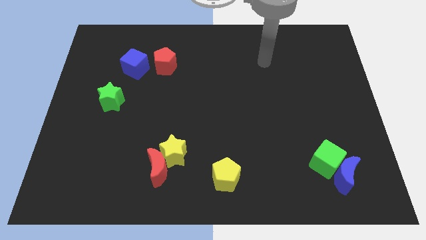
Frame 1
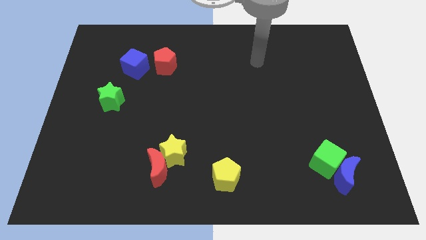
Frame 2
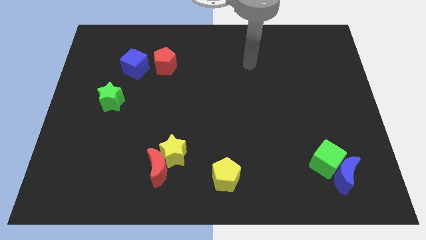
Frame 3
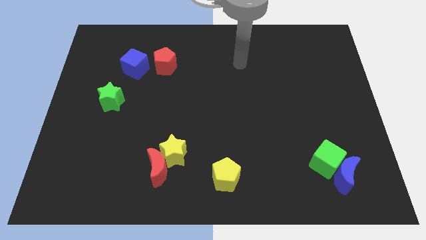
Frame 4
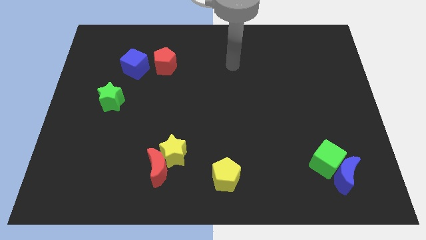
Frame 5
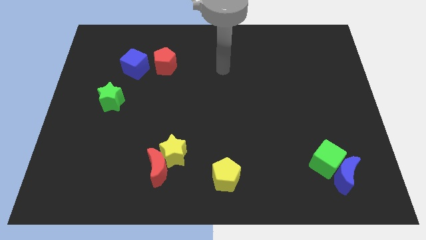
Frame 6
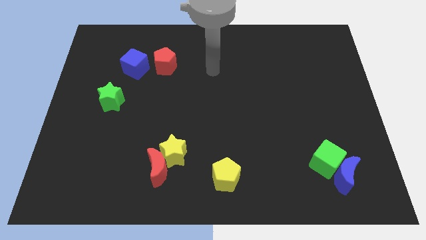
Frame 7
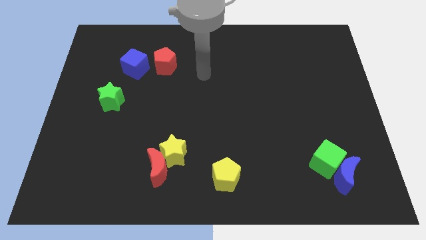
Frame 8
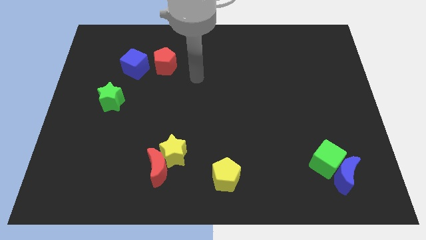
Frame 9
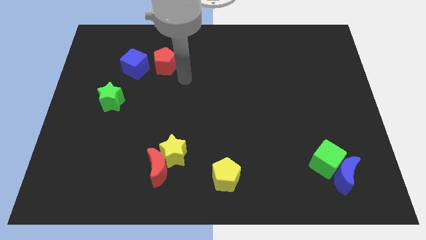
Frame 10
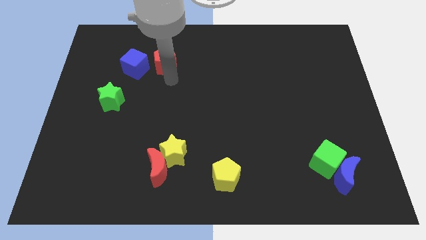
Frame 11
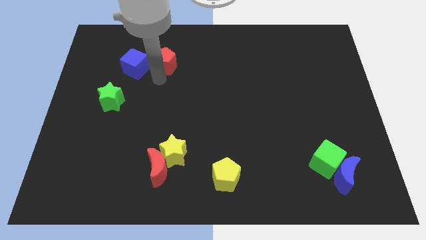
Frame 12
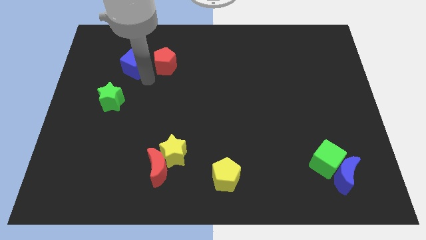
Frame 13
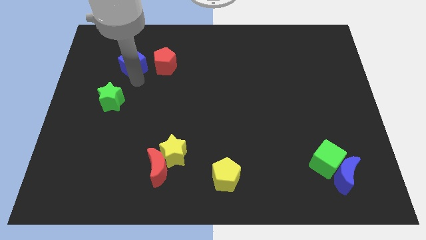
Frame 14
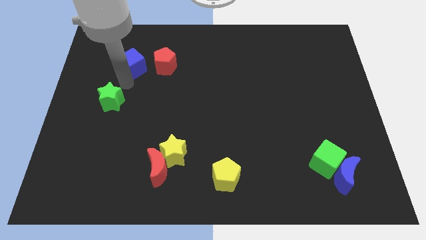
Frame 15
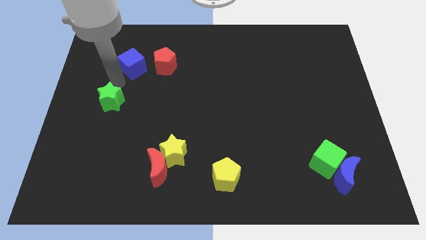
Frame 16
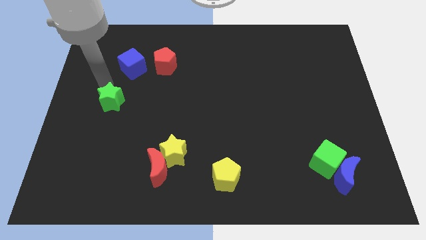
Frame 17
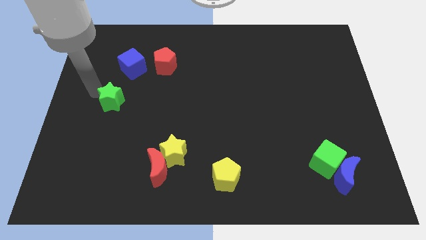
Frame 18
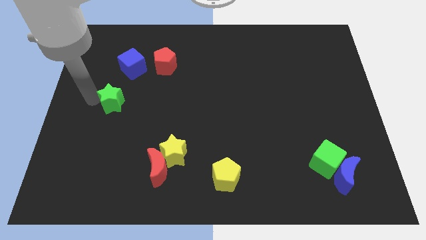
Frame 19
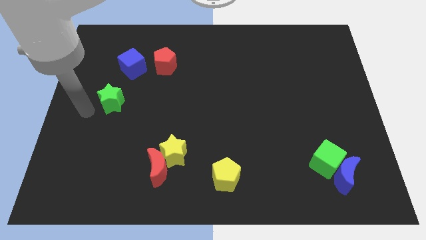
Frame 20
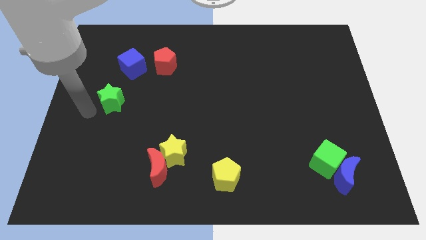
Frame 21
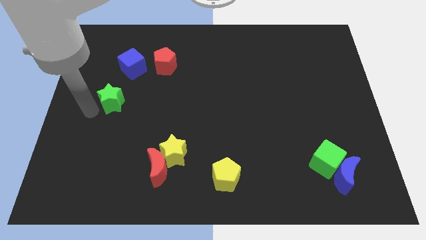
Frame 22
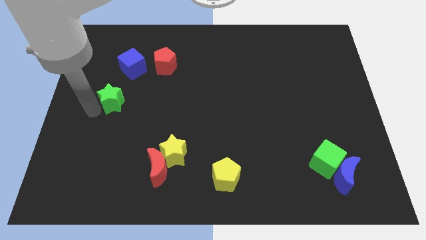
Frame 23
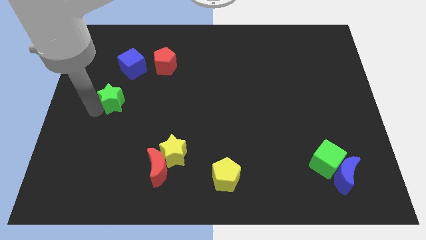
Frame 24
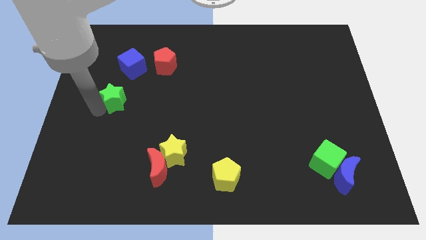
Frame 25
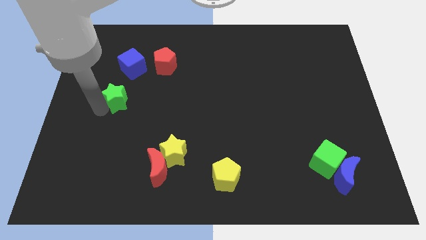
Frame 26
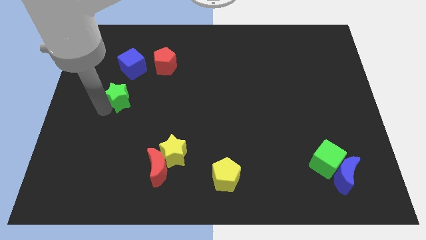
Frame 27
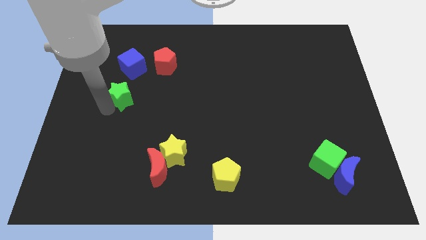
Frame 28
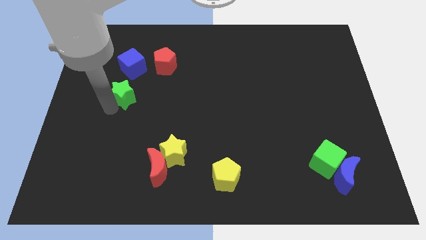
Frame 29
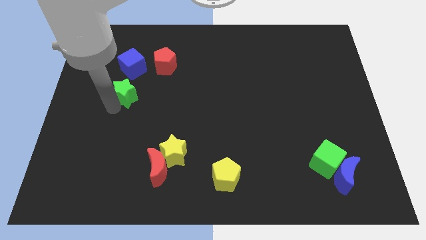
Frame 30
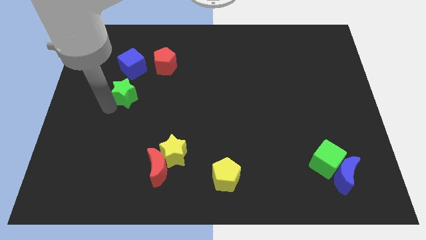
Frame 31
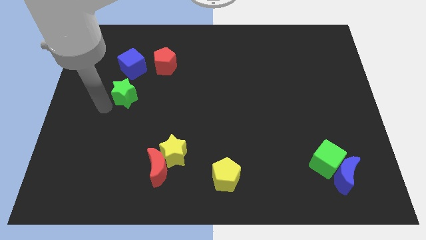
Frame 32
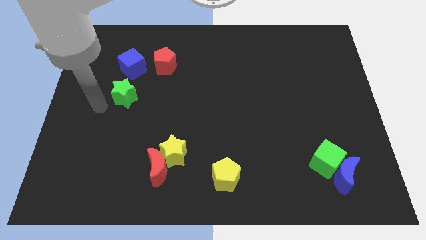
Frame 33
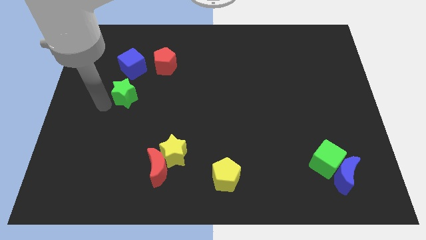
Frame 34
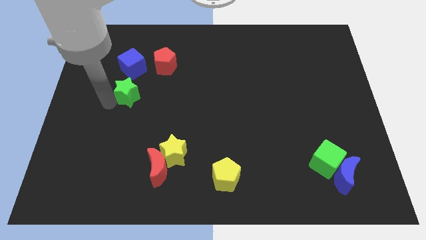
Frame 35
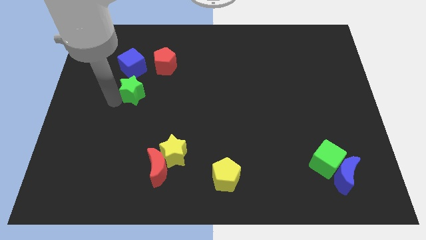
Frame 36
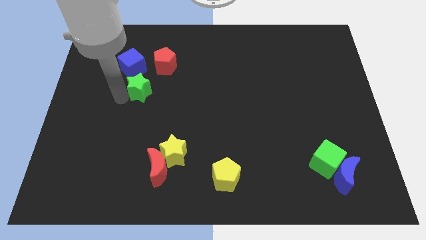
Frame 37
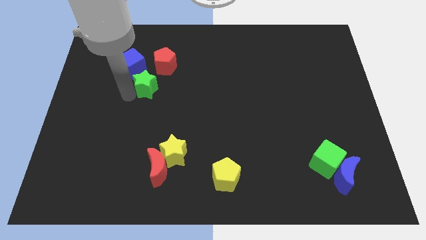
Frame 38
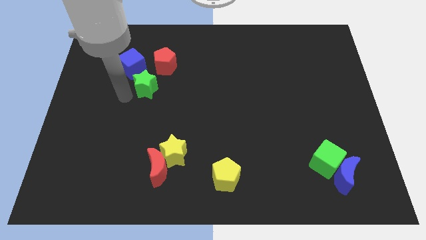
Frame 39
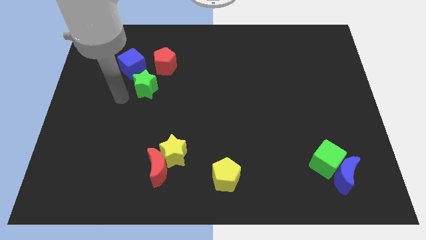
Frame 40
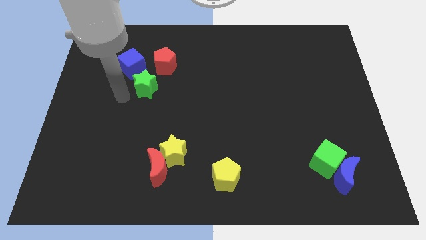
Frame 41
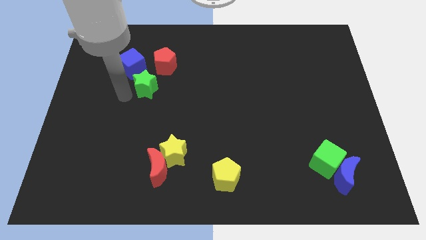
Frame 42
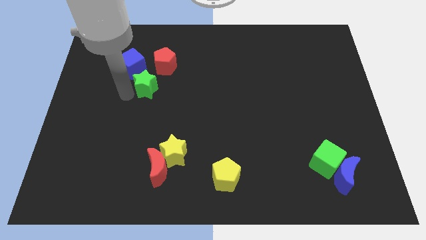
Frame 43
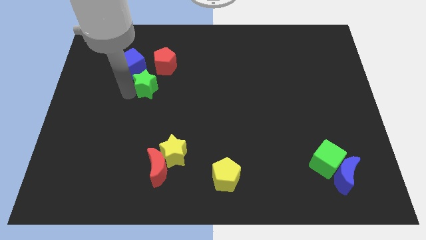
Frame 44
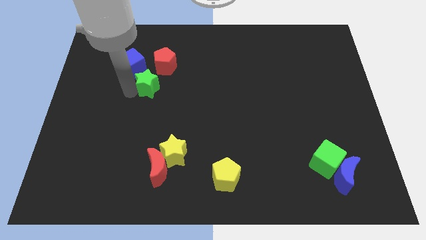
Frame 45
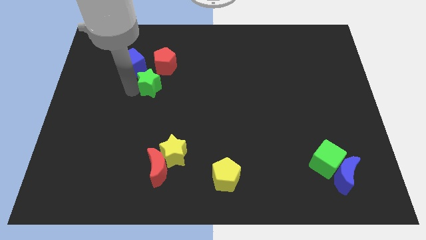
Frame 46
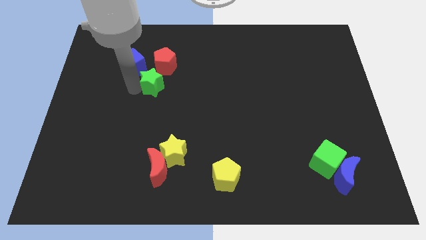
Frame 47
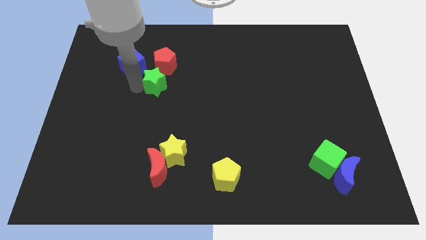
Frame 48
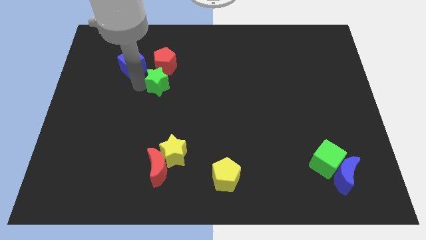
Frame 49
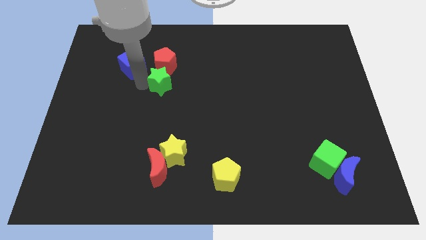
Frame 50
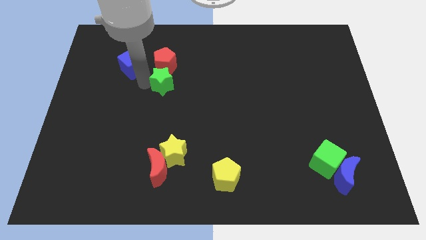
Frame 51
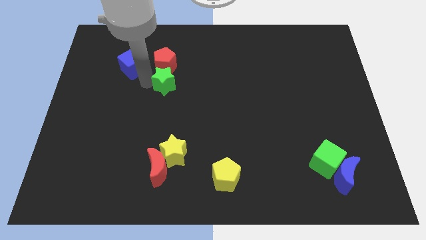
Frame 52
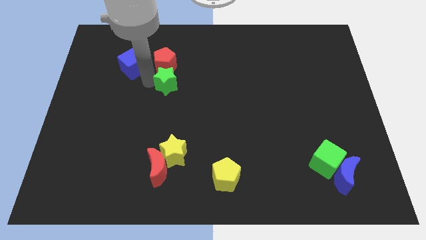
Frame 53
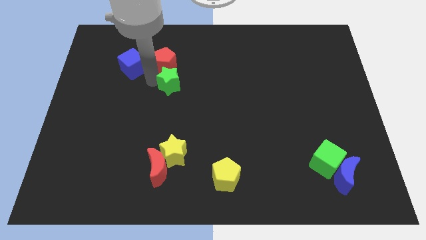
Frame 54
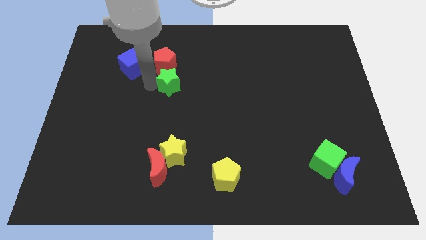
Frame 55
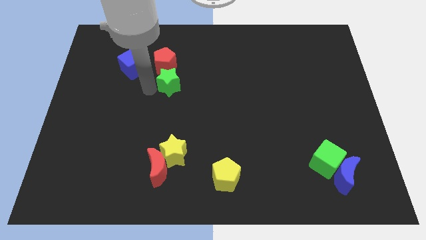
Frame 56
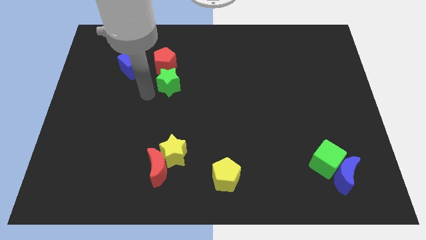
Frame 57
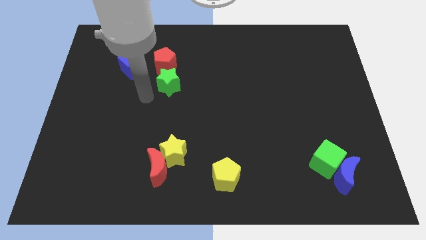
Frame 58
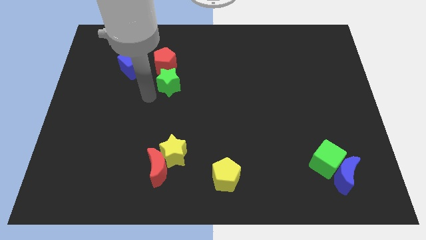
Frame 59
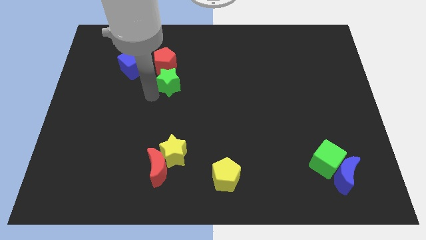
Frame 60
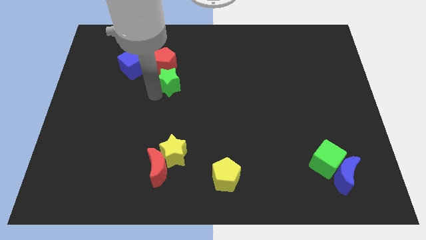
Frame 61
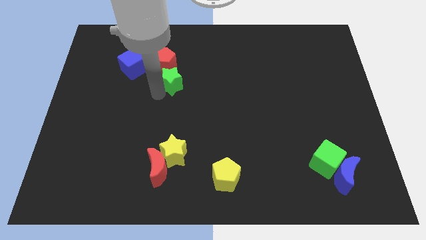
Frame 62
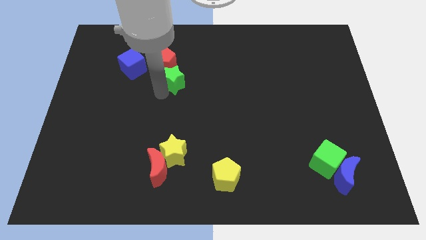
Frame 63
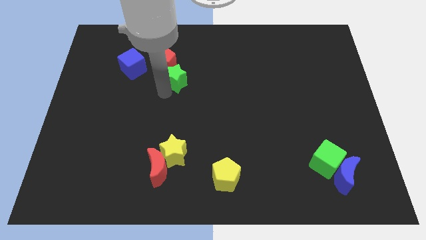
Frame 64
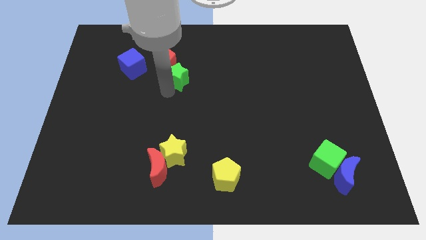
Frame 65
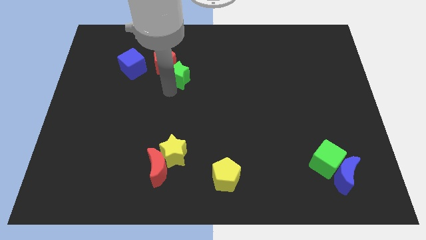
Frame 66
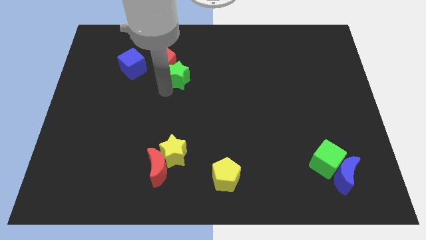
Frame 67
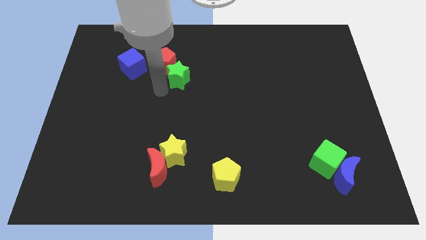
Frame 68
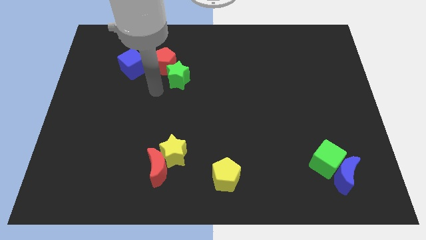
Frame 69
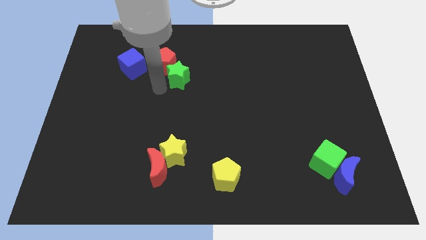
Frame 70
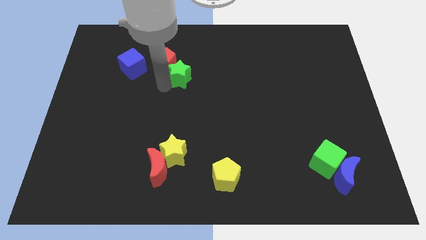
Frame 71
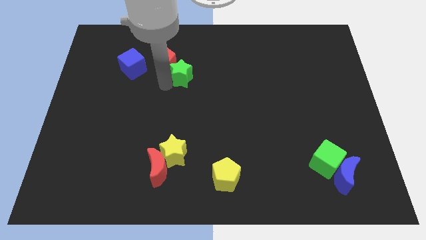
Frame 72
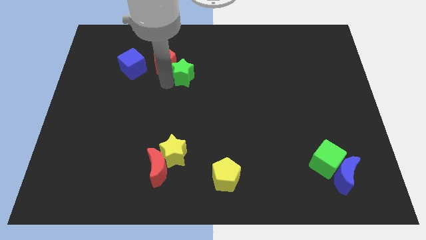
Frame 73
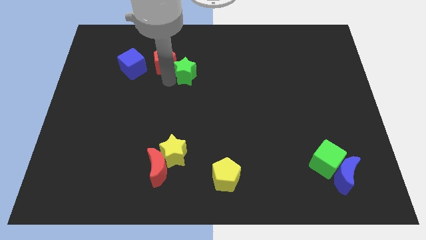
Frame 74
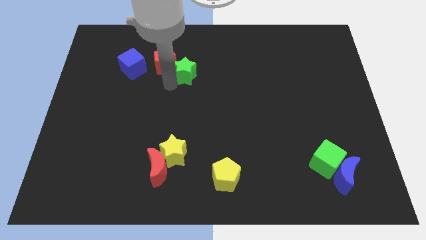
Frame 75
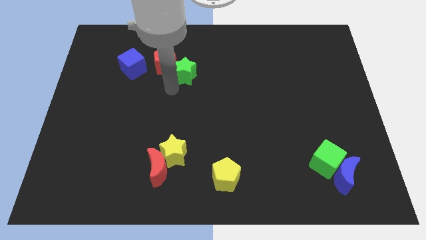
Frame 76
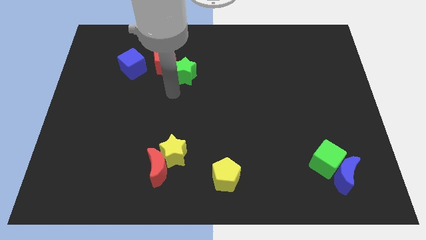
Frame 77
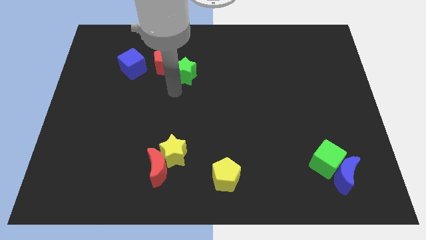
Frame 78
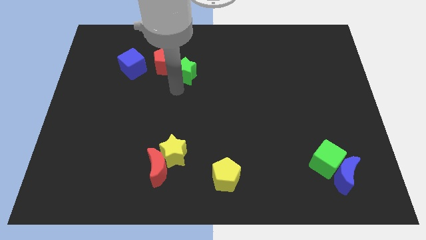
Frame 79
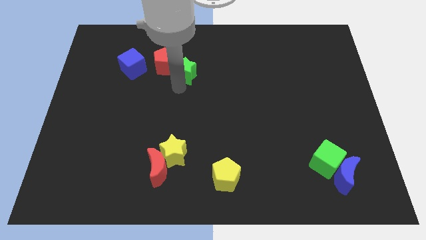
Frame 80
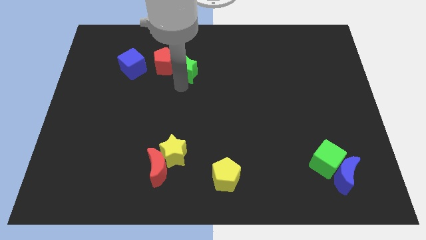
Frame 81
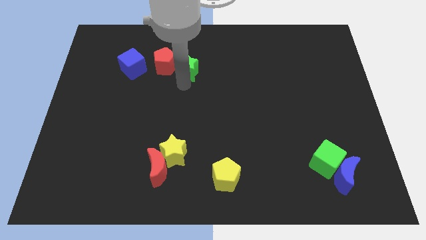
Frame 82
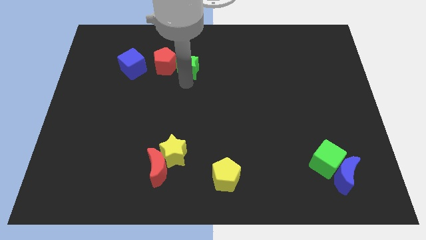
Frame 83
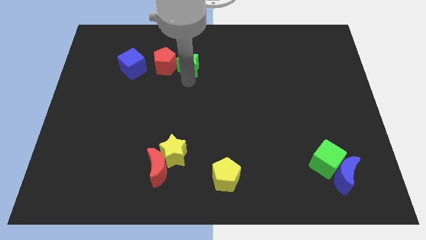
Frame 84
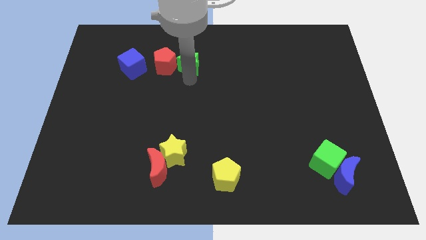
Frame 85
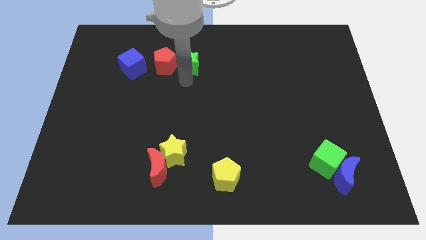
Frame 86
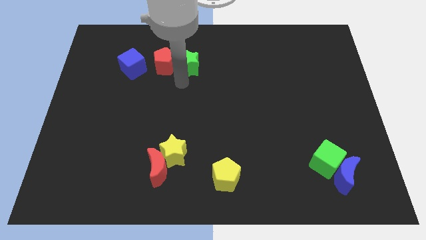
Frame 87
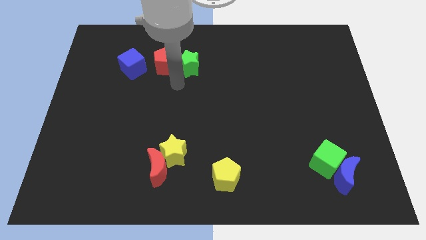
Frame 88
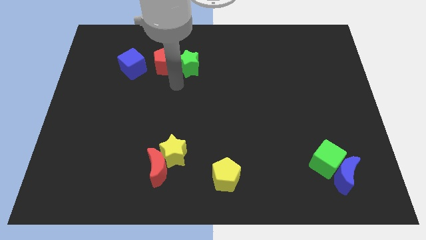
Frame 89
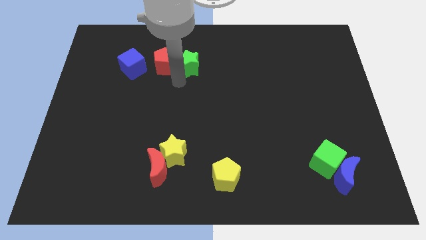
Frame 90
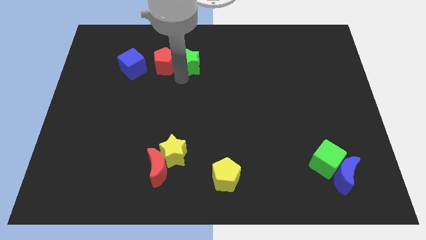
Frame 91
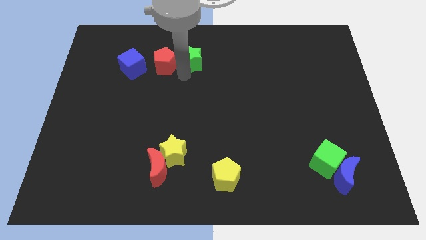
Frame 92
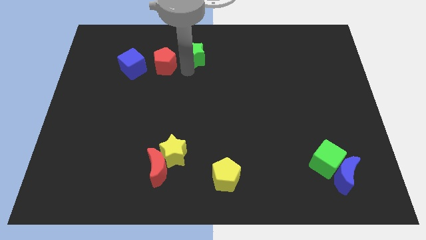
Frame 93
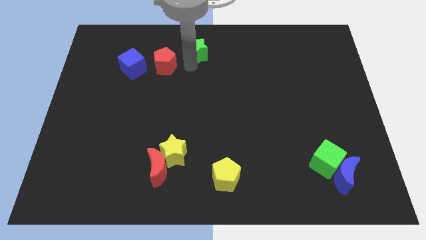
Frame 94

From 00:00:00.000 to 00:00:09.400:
move the green star to the top side
